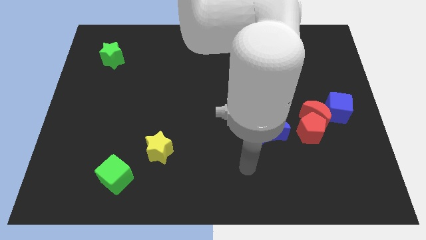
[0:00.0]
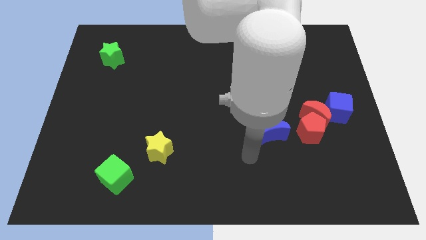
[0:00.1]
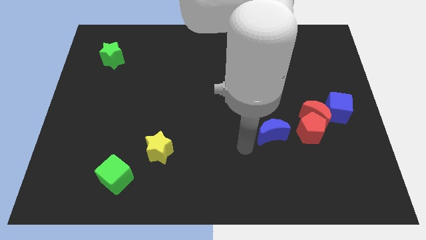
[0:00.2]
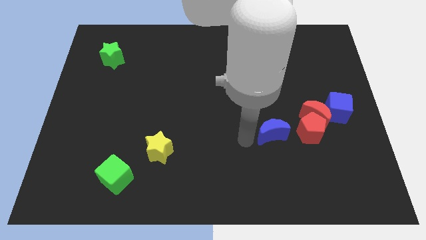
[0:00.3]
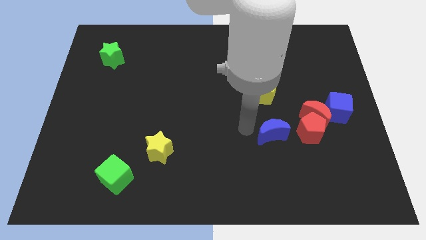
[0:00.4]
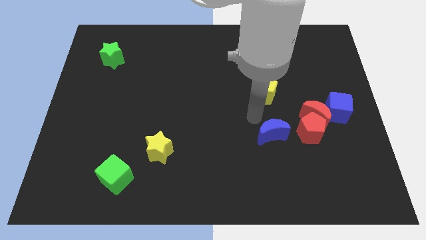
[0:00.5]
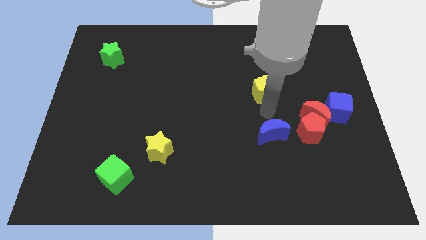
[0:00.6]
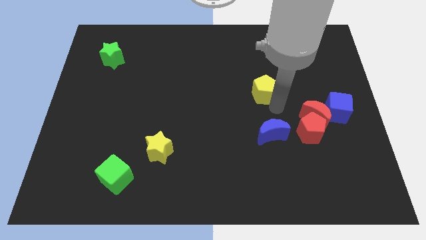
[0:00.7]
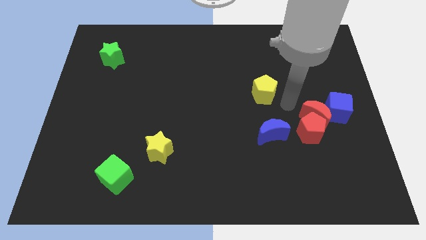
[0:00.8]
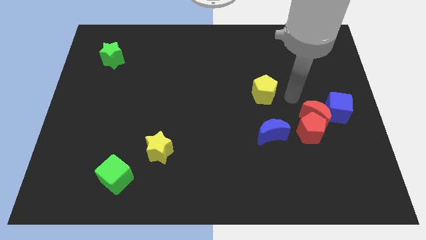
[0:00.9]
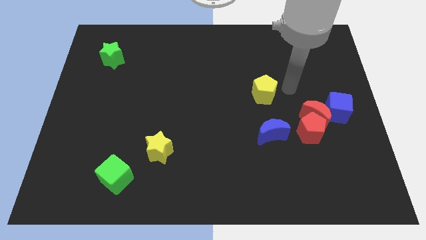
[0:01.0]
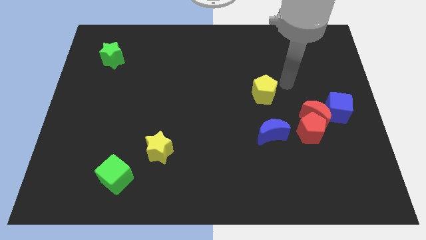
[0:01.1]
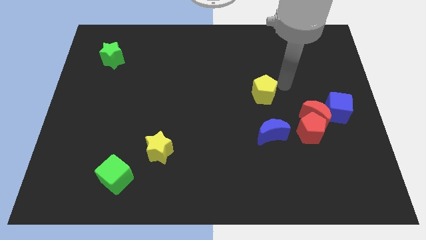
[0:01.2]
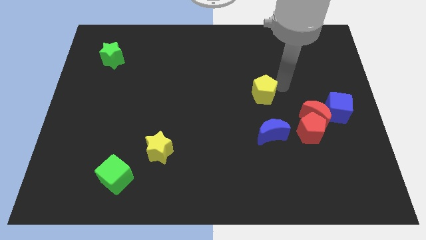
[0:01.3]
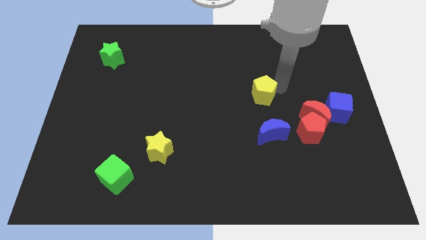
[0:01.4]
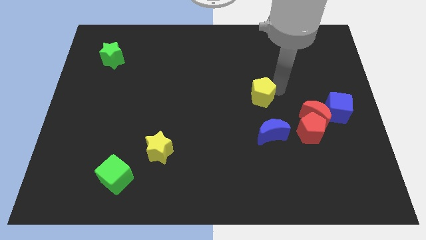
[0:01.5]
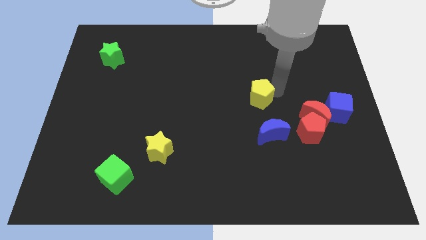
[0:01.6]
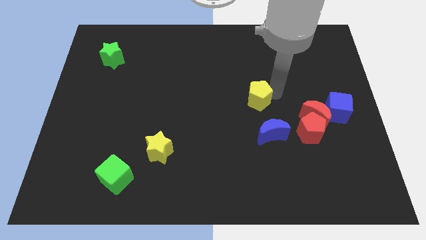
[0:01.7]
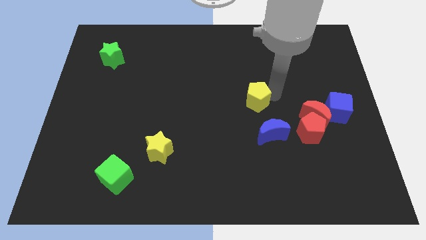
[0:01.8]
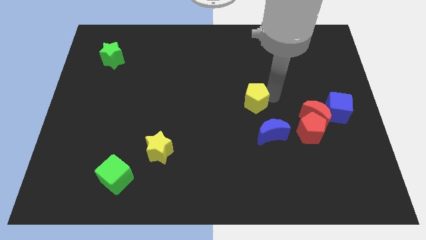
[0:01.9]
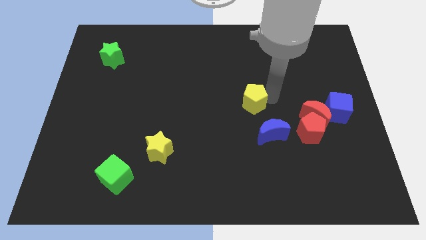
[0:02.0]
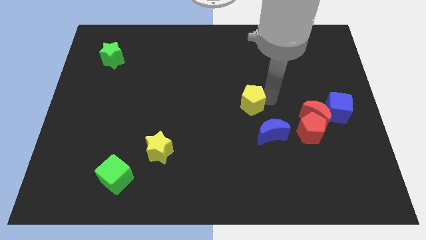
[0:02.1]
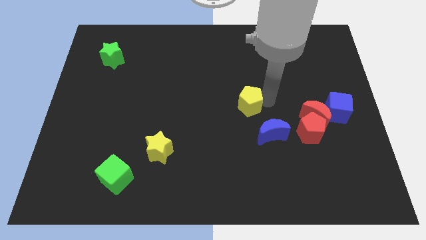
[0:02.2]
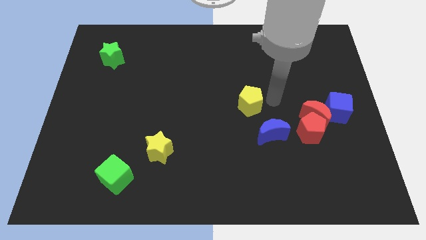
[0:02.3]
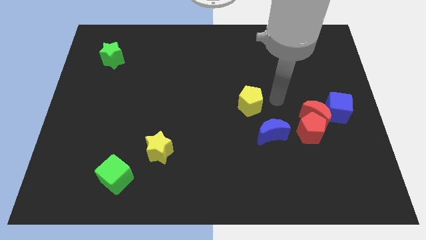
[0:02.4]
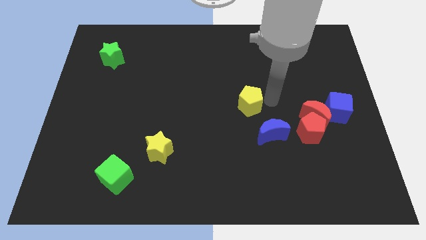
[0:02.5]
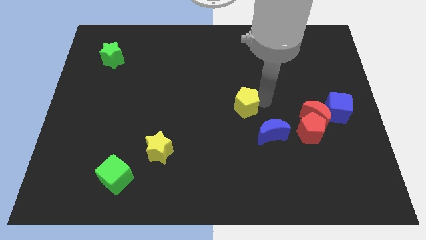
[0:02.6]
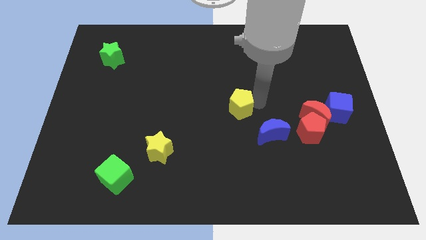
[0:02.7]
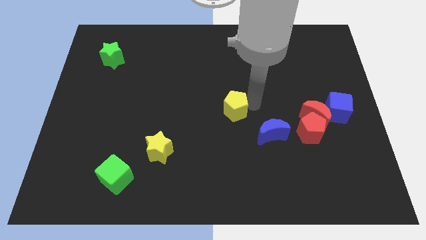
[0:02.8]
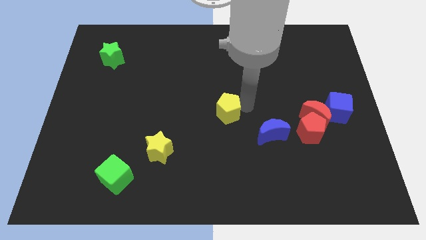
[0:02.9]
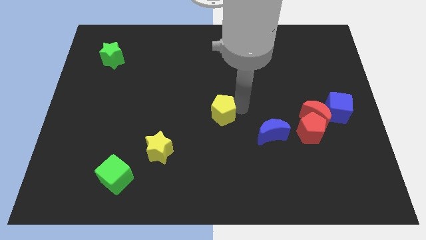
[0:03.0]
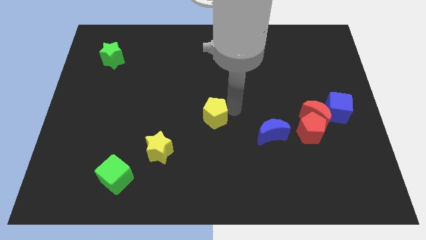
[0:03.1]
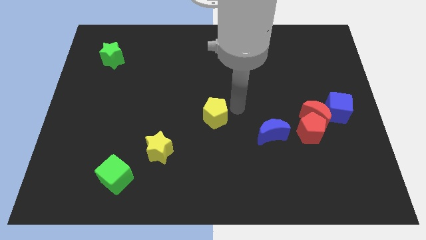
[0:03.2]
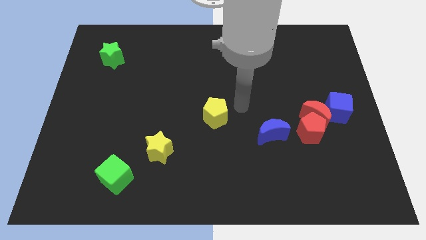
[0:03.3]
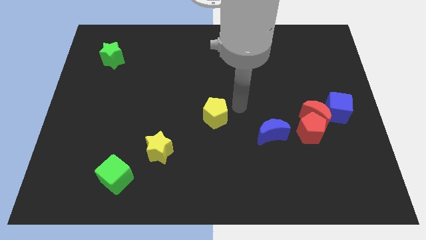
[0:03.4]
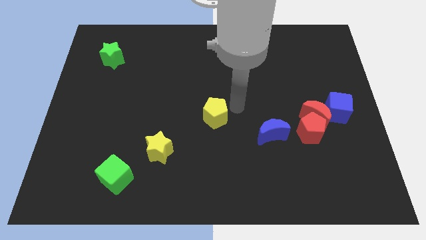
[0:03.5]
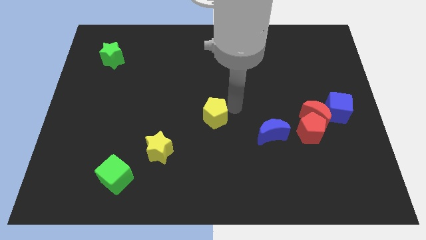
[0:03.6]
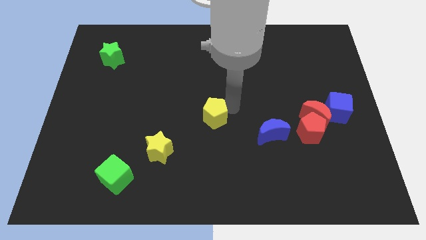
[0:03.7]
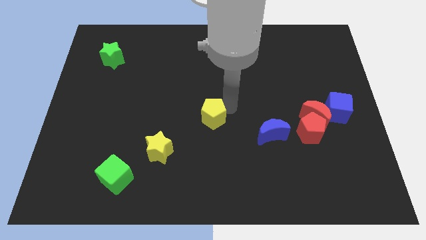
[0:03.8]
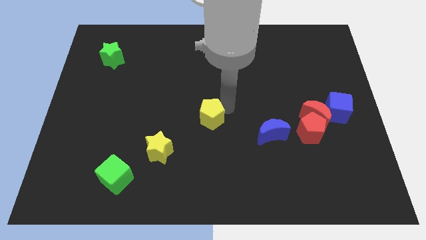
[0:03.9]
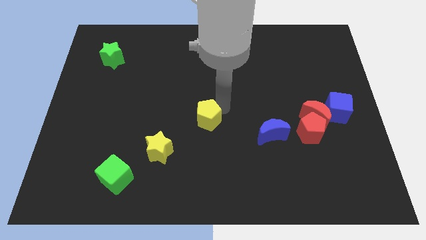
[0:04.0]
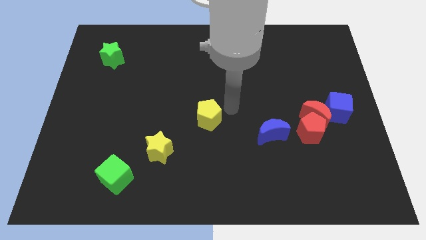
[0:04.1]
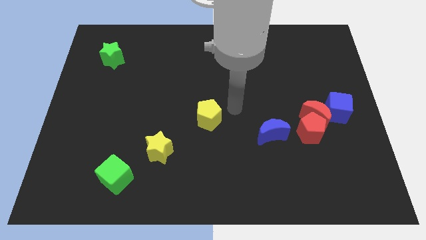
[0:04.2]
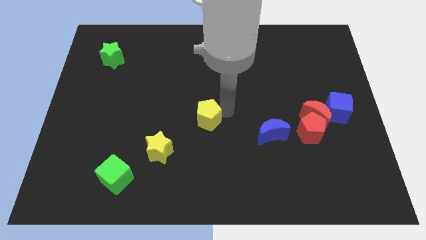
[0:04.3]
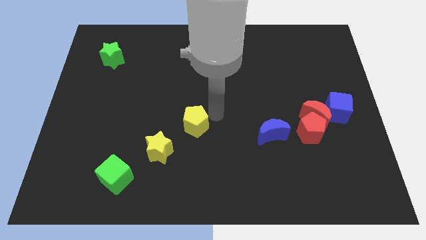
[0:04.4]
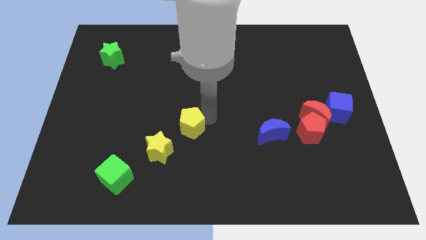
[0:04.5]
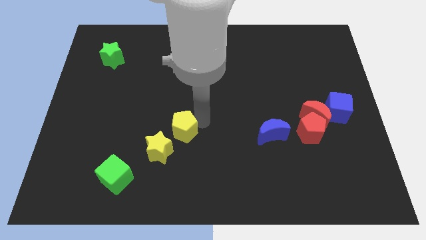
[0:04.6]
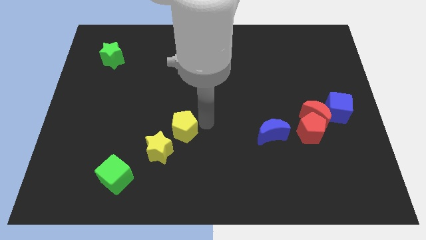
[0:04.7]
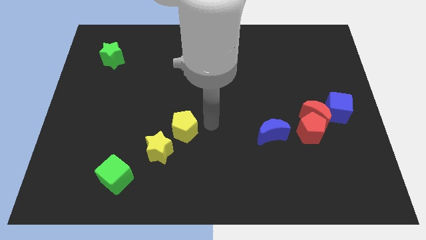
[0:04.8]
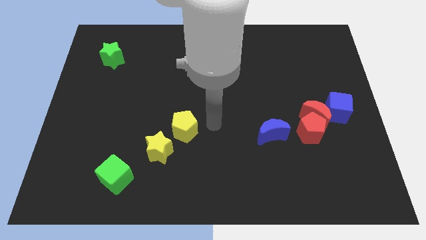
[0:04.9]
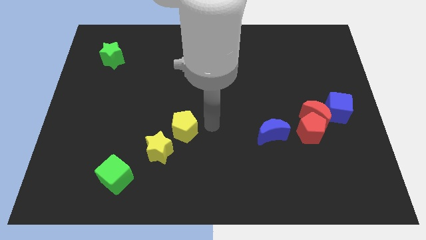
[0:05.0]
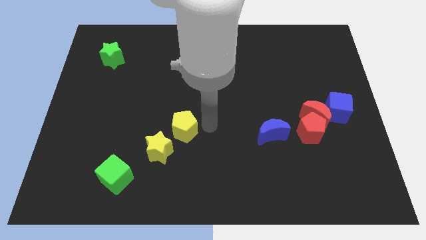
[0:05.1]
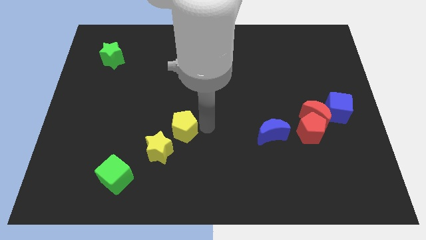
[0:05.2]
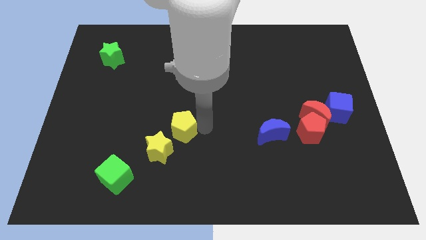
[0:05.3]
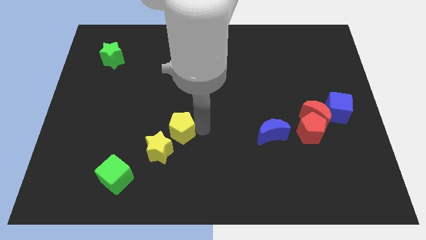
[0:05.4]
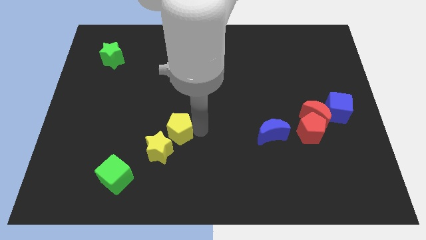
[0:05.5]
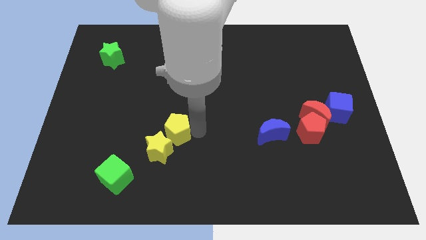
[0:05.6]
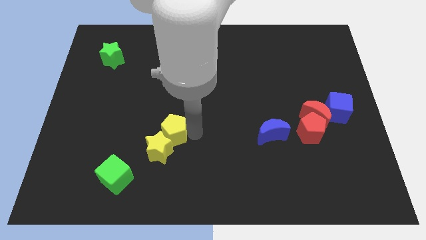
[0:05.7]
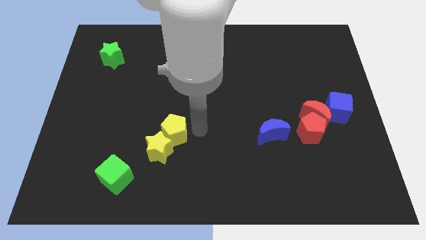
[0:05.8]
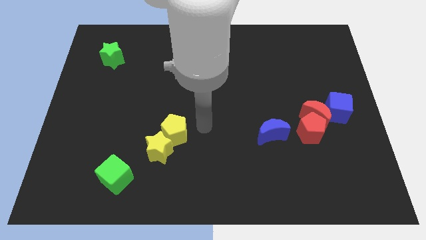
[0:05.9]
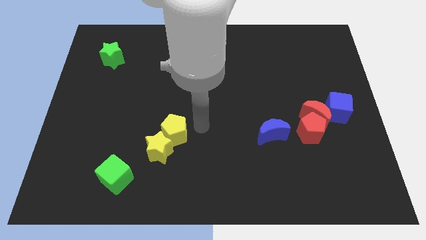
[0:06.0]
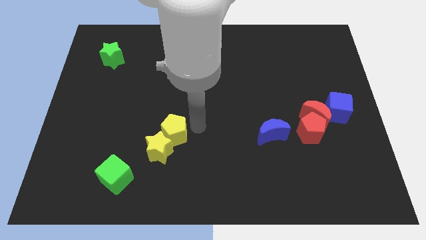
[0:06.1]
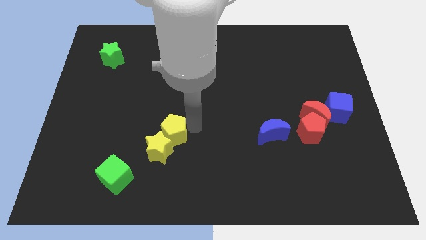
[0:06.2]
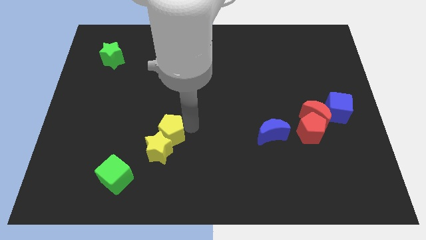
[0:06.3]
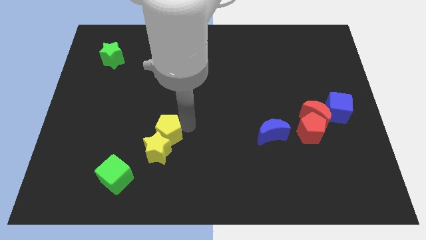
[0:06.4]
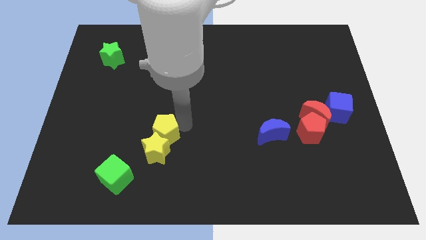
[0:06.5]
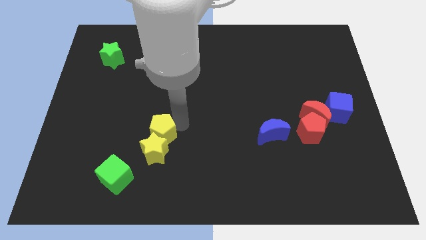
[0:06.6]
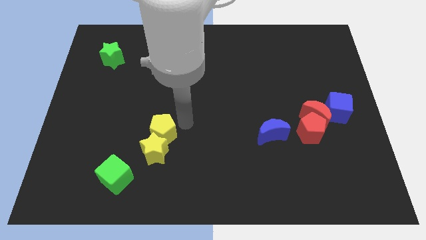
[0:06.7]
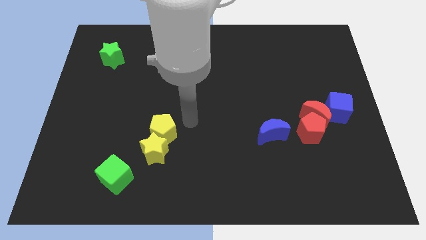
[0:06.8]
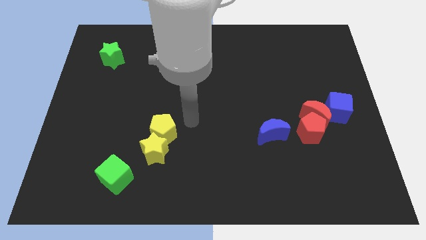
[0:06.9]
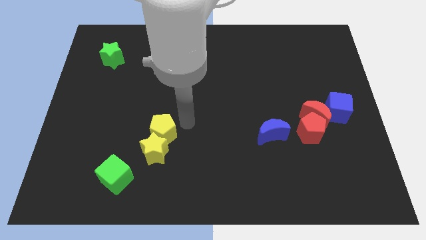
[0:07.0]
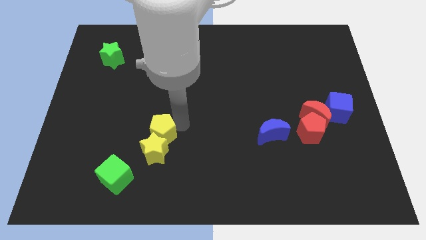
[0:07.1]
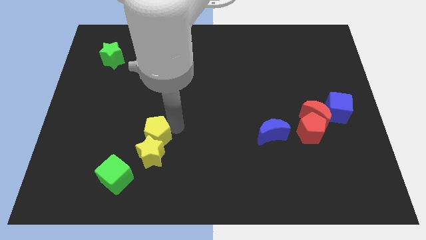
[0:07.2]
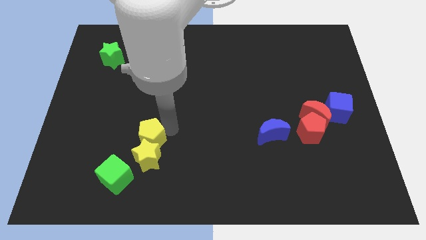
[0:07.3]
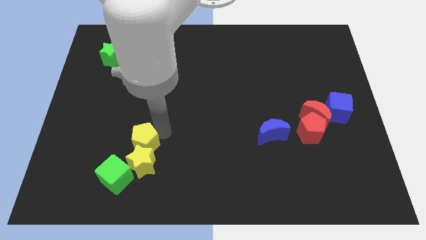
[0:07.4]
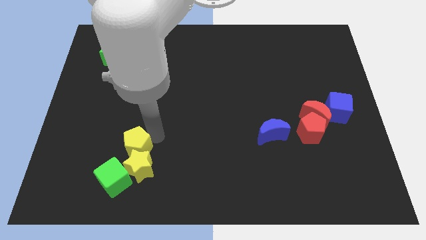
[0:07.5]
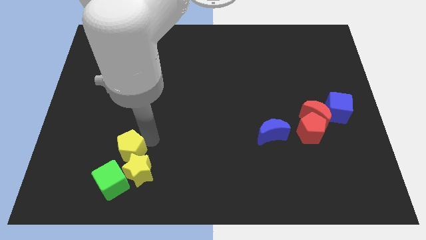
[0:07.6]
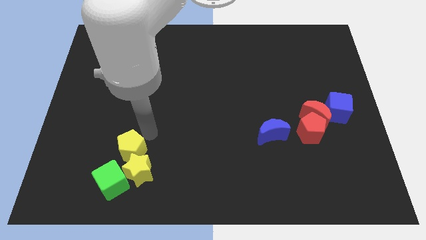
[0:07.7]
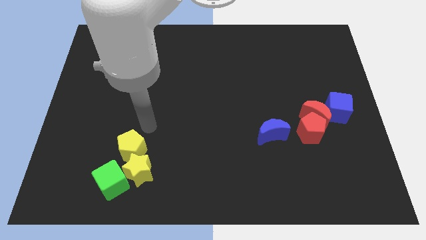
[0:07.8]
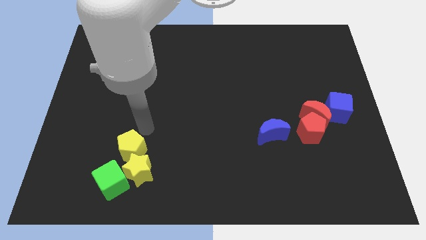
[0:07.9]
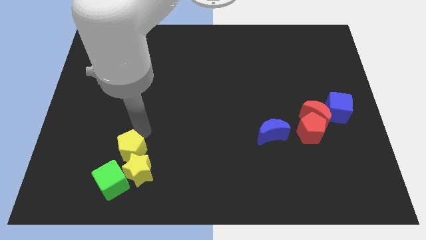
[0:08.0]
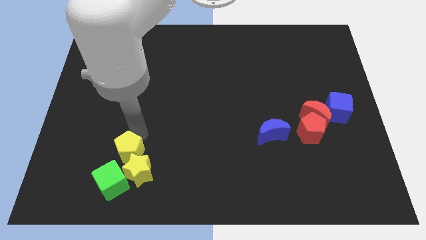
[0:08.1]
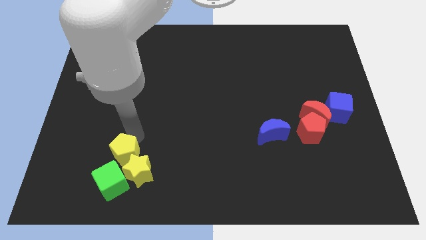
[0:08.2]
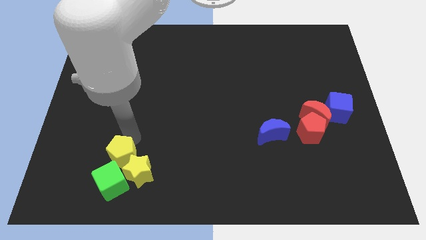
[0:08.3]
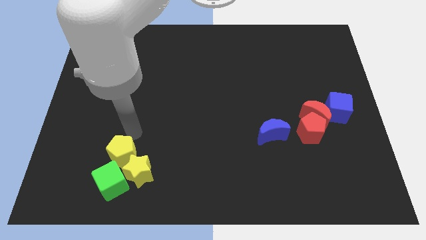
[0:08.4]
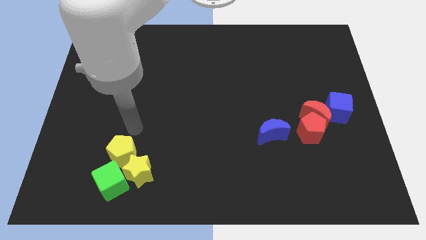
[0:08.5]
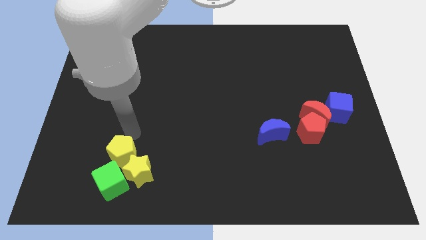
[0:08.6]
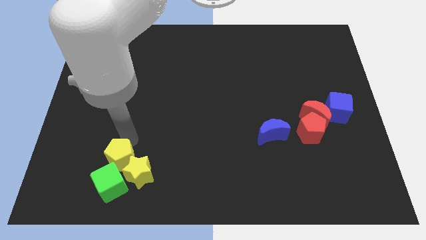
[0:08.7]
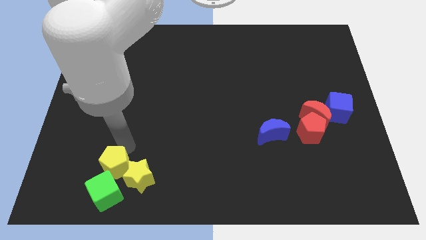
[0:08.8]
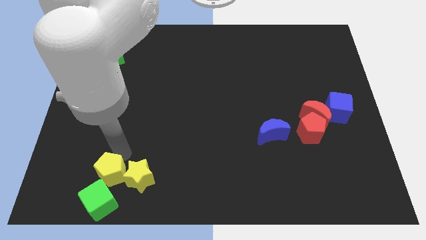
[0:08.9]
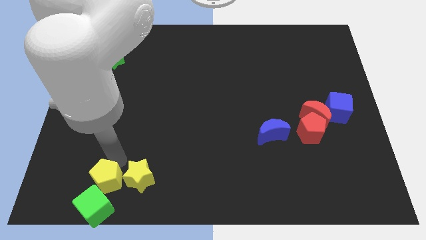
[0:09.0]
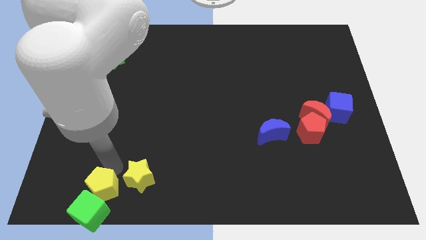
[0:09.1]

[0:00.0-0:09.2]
put the yellow pentagon close to the green cube
